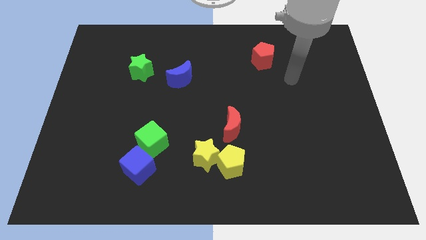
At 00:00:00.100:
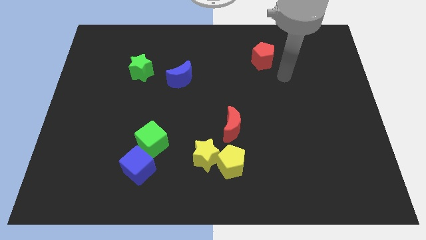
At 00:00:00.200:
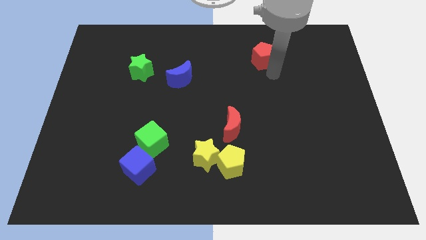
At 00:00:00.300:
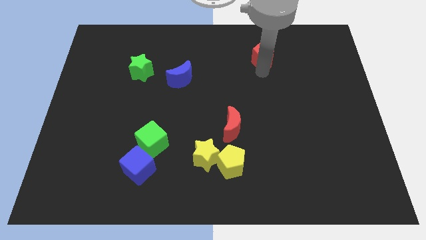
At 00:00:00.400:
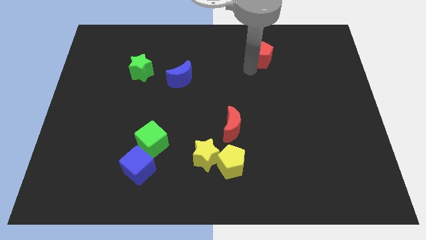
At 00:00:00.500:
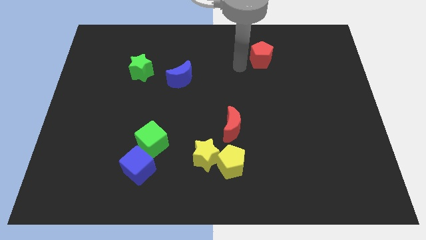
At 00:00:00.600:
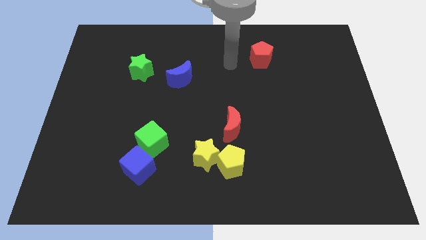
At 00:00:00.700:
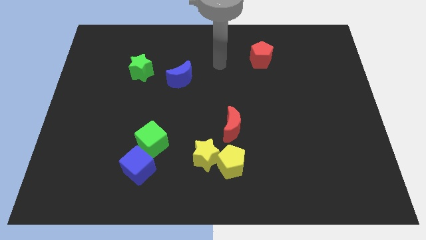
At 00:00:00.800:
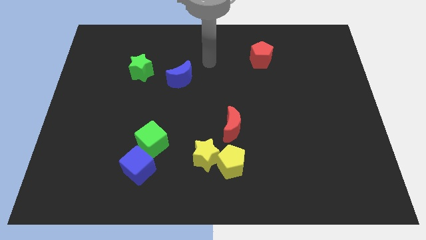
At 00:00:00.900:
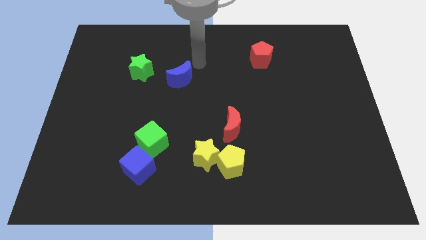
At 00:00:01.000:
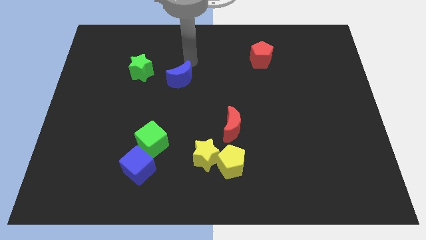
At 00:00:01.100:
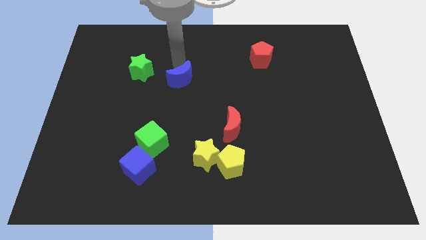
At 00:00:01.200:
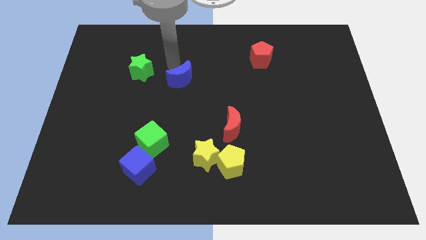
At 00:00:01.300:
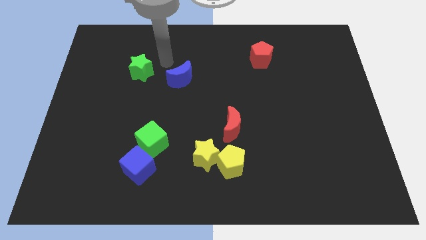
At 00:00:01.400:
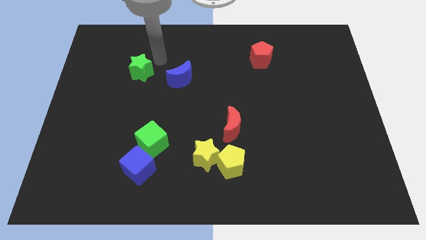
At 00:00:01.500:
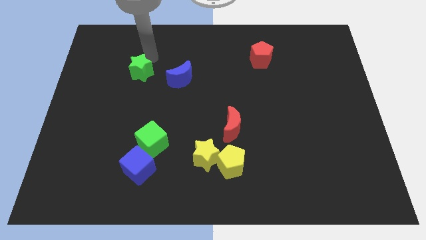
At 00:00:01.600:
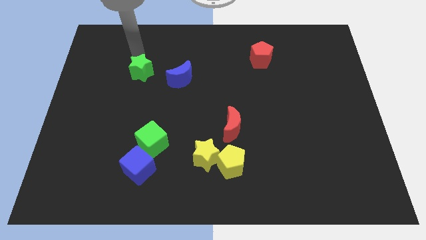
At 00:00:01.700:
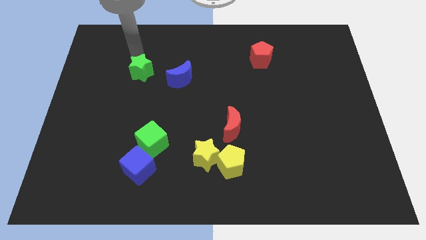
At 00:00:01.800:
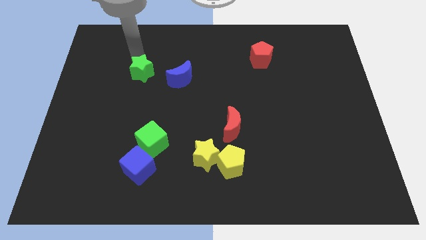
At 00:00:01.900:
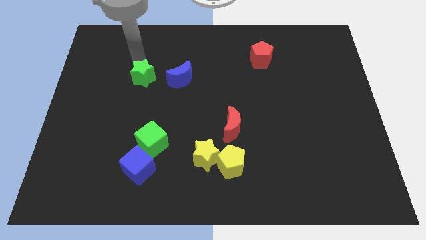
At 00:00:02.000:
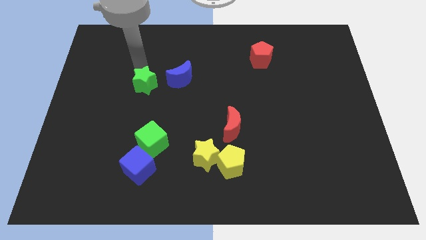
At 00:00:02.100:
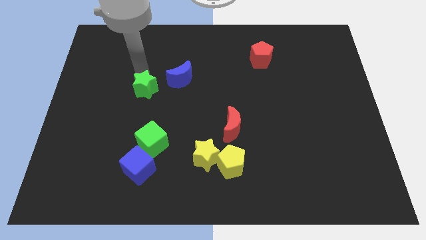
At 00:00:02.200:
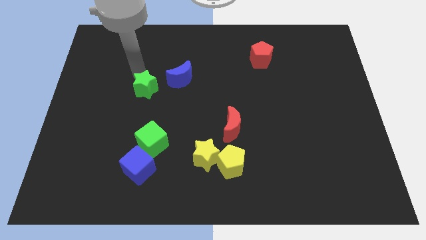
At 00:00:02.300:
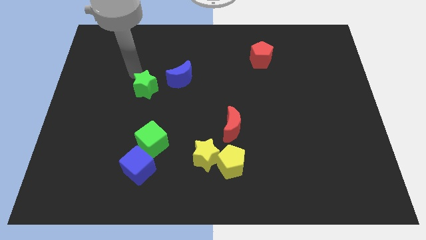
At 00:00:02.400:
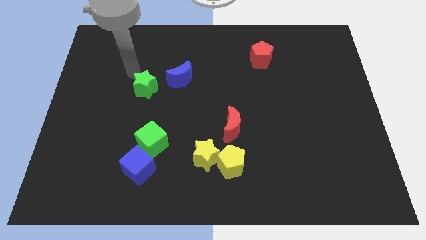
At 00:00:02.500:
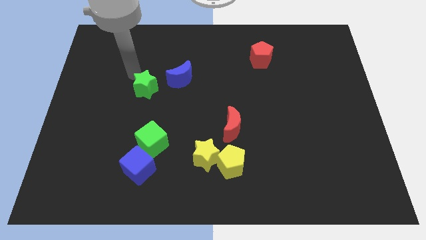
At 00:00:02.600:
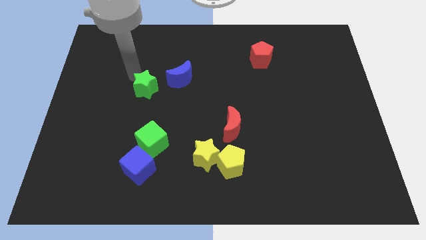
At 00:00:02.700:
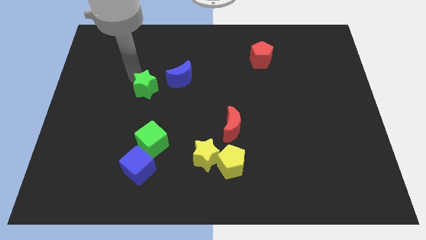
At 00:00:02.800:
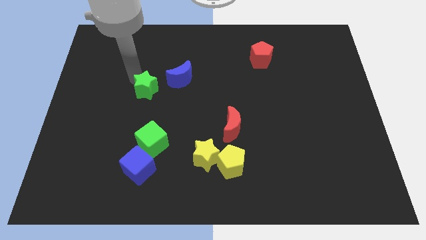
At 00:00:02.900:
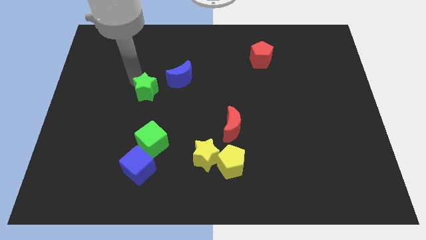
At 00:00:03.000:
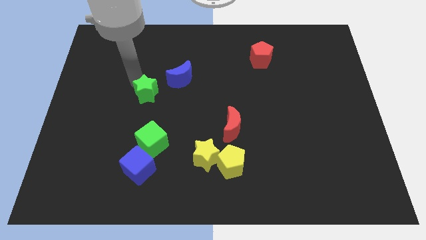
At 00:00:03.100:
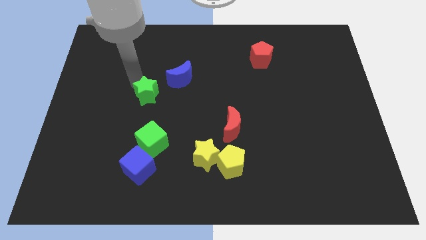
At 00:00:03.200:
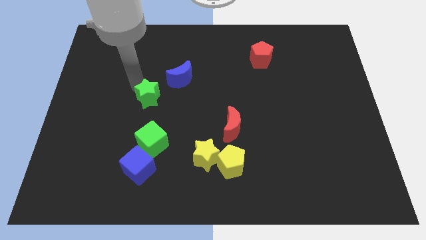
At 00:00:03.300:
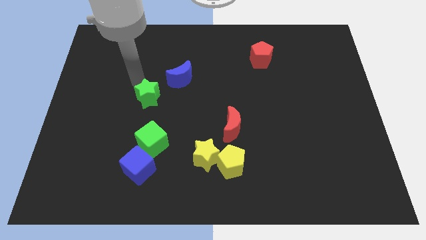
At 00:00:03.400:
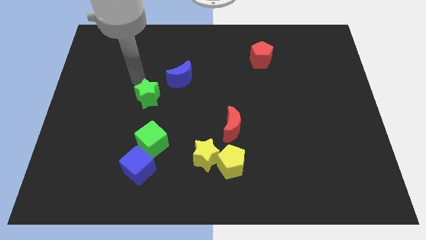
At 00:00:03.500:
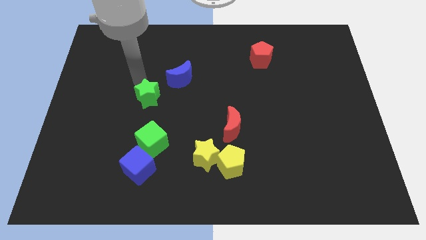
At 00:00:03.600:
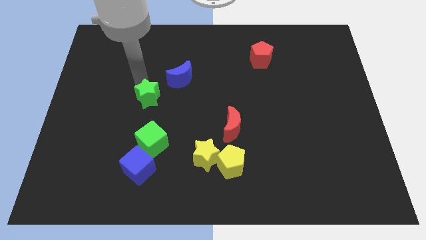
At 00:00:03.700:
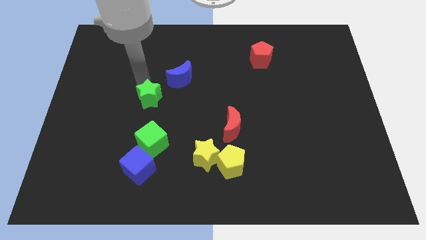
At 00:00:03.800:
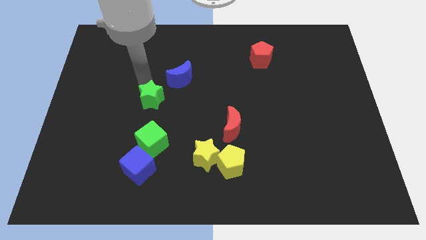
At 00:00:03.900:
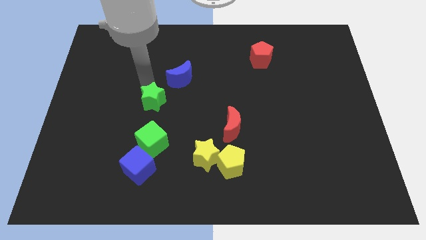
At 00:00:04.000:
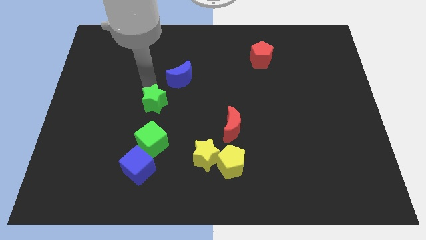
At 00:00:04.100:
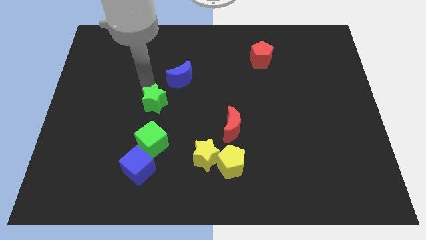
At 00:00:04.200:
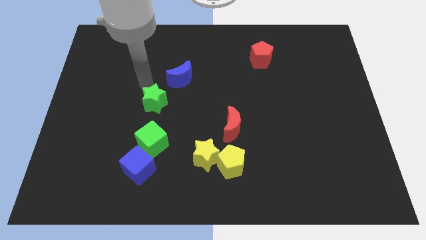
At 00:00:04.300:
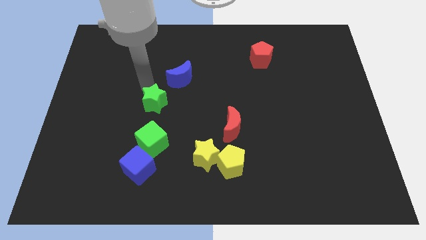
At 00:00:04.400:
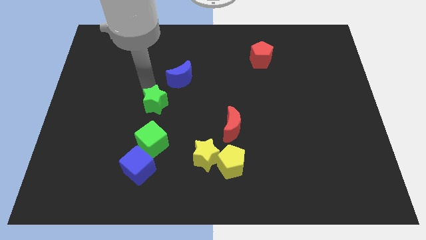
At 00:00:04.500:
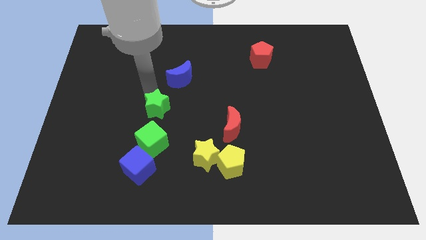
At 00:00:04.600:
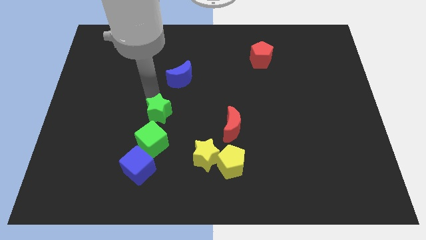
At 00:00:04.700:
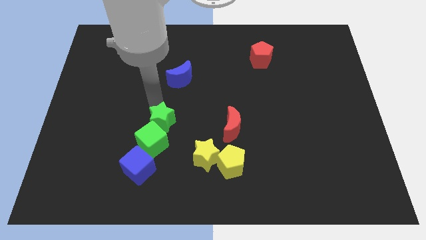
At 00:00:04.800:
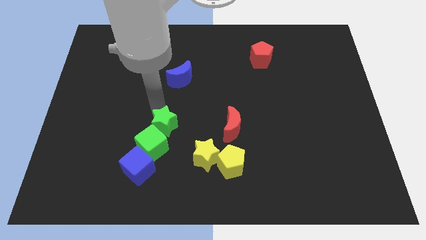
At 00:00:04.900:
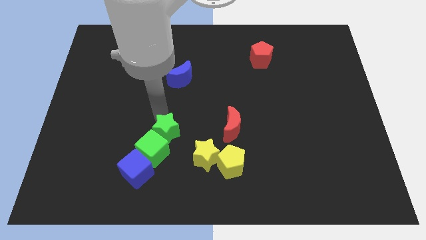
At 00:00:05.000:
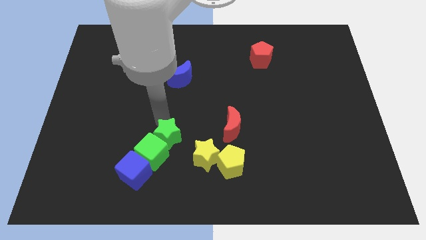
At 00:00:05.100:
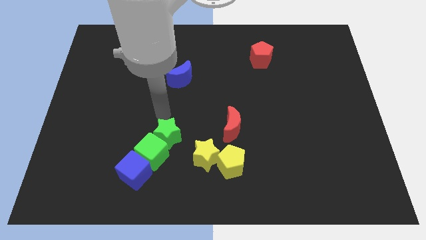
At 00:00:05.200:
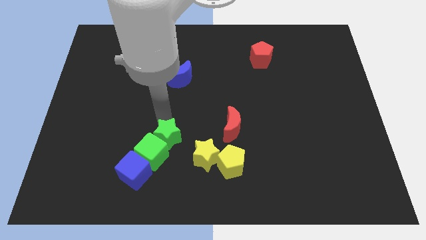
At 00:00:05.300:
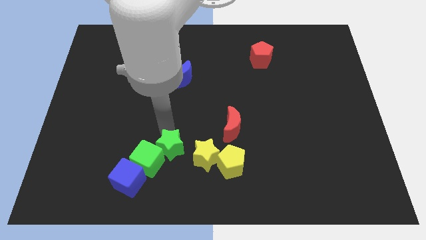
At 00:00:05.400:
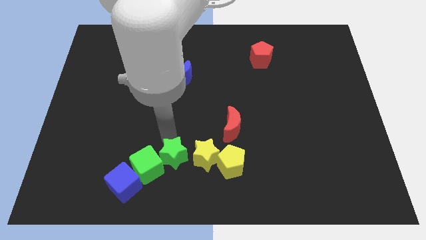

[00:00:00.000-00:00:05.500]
move the green star to the bottom left of the yellow star
